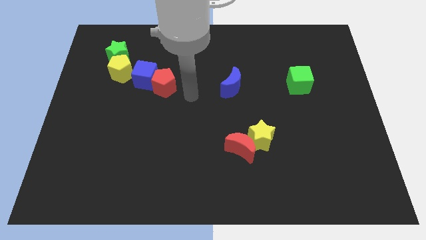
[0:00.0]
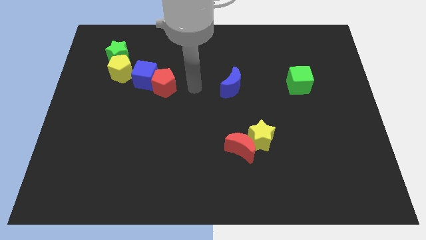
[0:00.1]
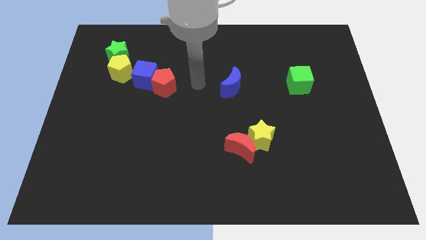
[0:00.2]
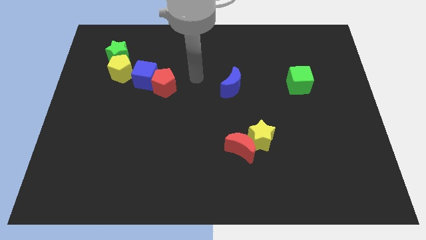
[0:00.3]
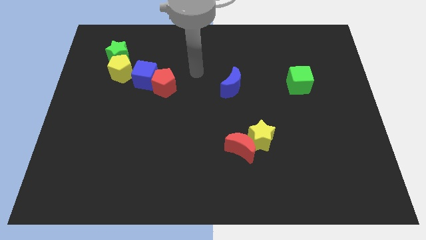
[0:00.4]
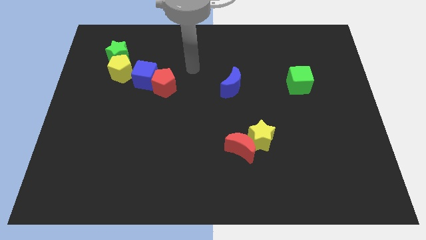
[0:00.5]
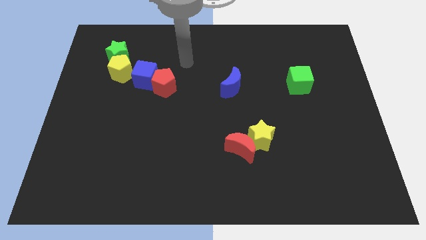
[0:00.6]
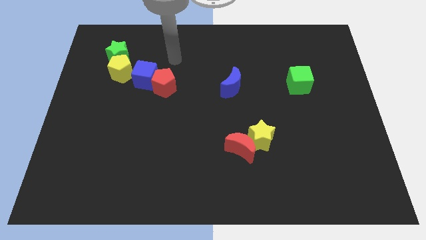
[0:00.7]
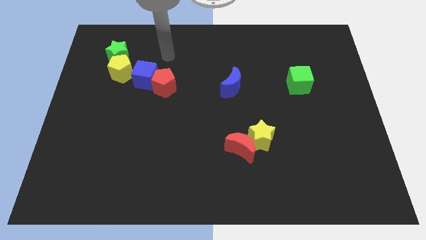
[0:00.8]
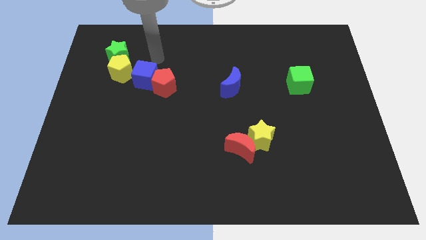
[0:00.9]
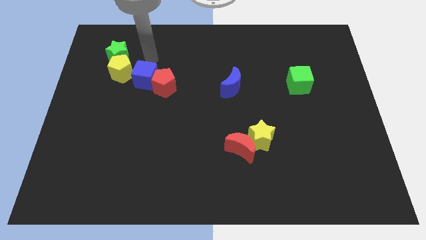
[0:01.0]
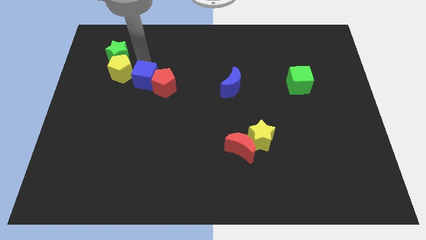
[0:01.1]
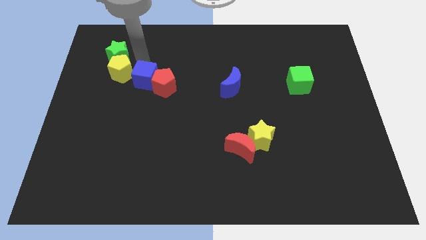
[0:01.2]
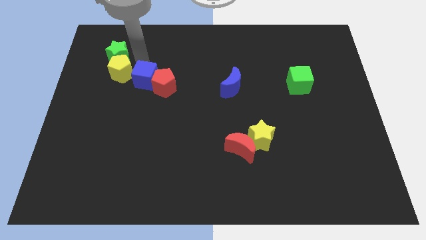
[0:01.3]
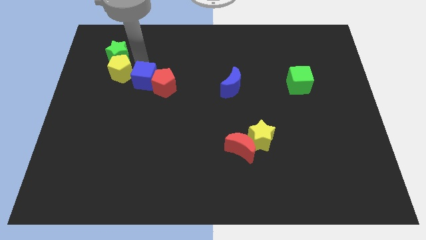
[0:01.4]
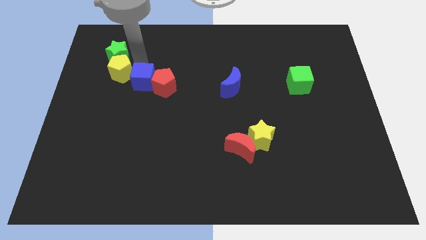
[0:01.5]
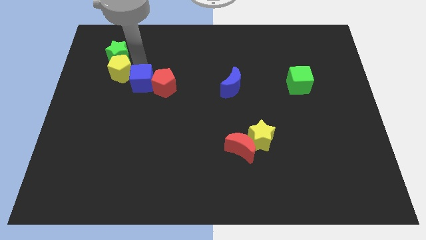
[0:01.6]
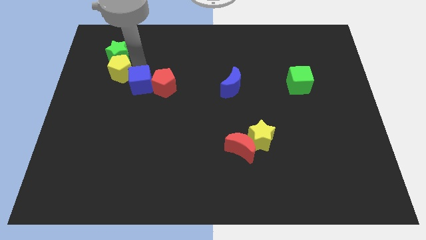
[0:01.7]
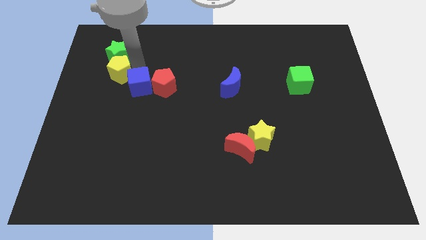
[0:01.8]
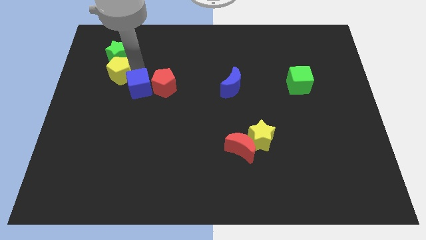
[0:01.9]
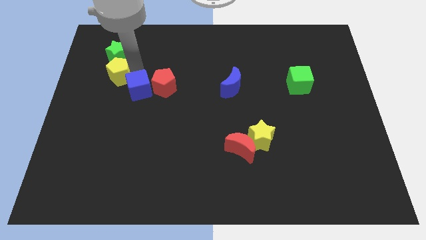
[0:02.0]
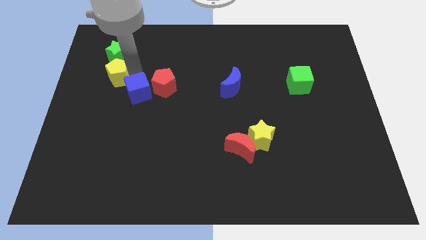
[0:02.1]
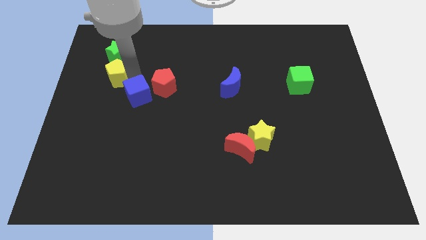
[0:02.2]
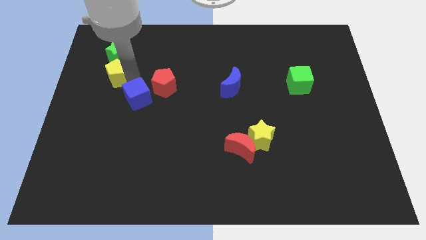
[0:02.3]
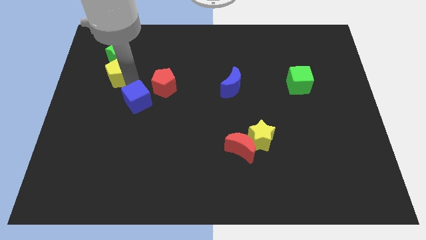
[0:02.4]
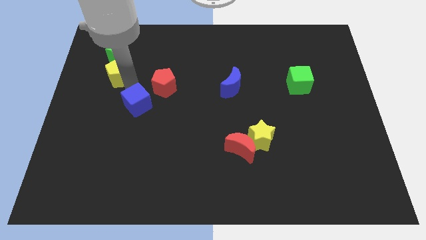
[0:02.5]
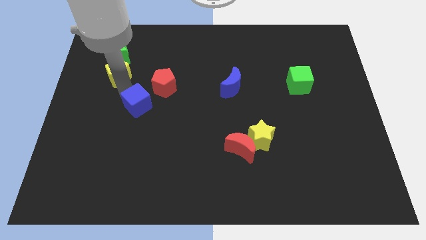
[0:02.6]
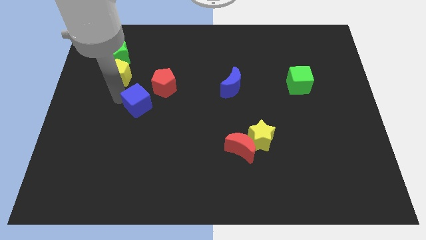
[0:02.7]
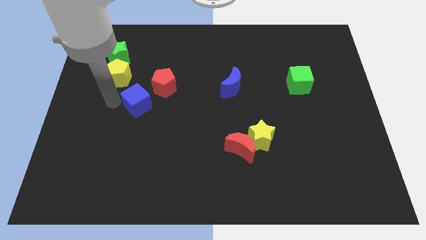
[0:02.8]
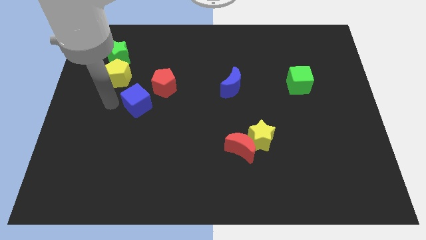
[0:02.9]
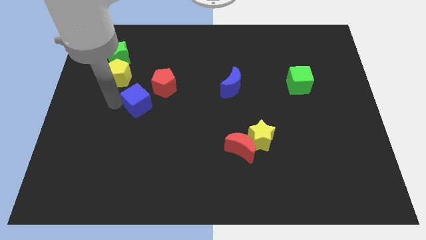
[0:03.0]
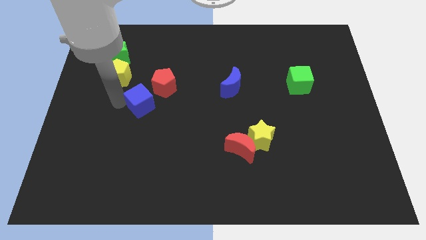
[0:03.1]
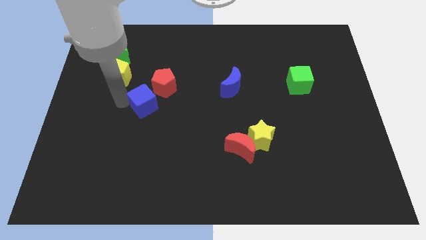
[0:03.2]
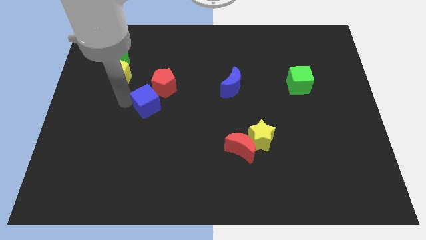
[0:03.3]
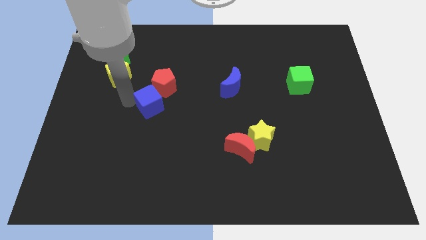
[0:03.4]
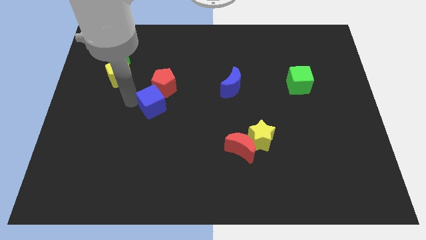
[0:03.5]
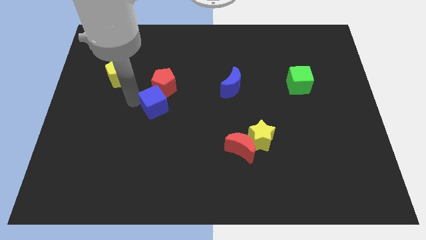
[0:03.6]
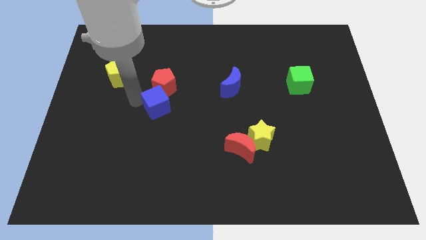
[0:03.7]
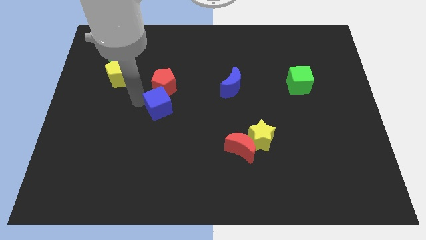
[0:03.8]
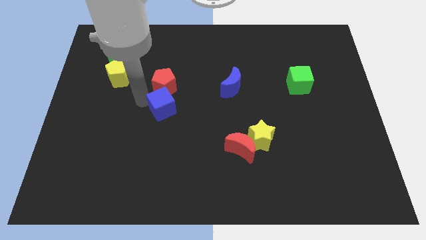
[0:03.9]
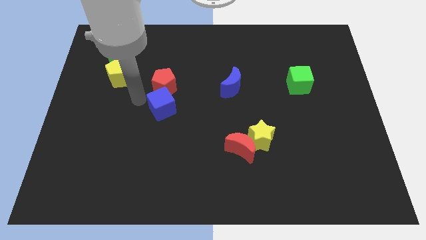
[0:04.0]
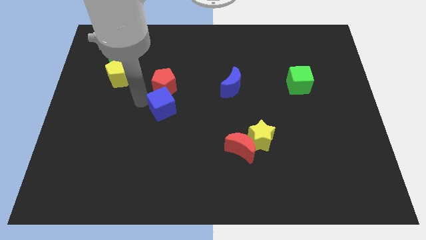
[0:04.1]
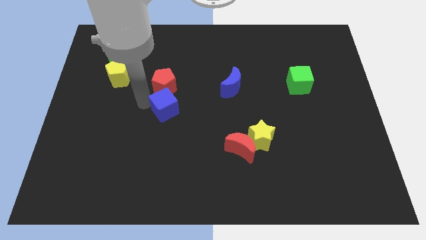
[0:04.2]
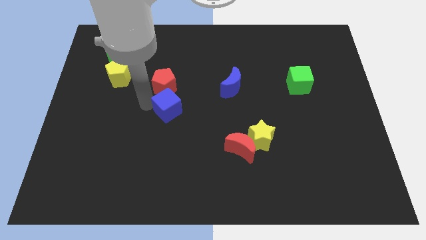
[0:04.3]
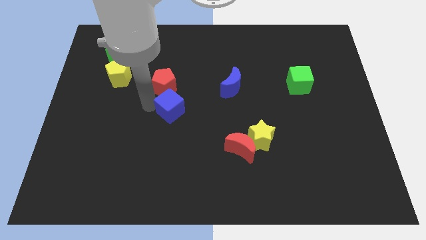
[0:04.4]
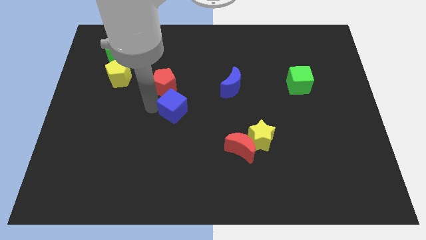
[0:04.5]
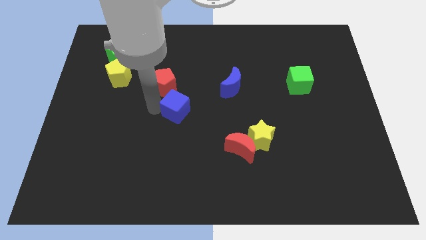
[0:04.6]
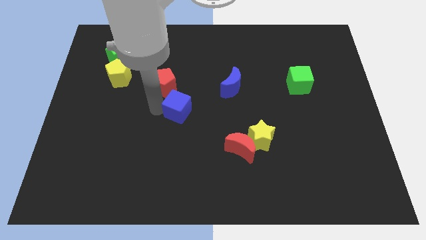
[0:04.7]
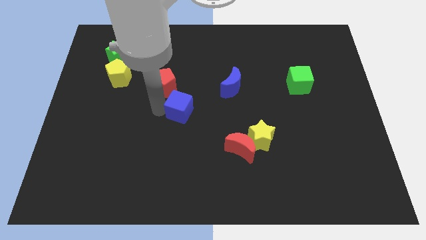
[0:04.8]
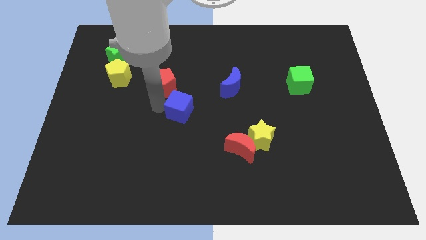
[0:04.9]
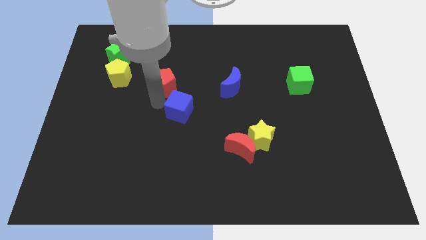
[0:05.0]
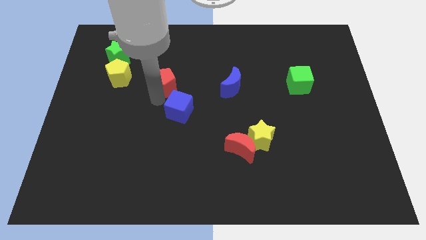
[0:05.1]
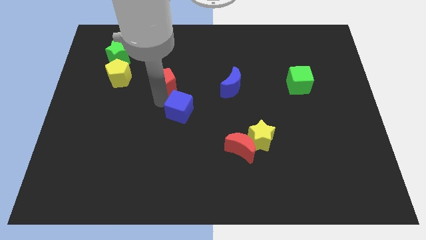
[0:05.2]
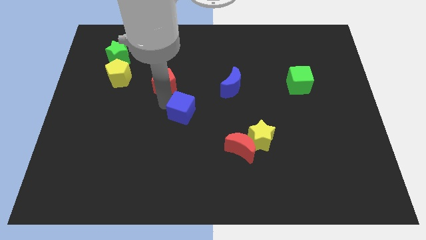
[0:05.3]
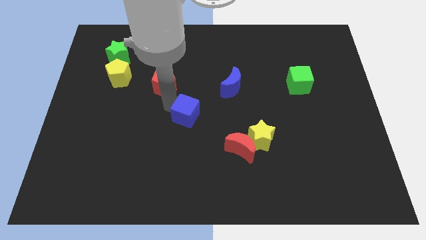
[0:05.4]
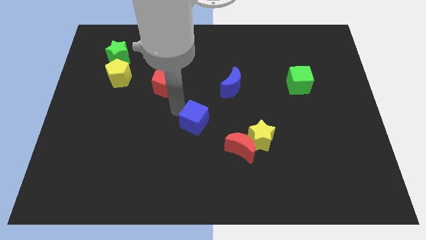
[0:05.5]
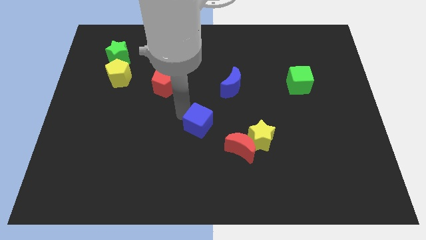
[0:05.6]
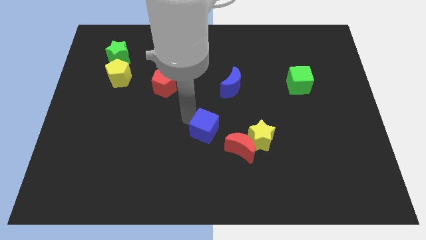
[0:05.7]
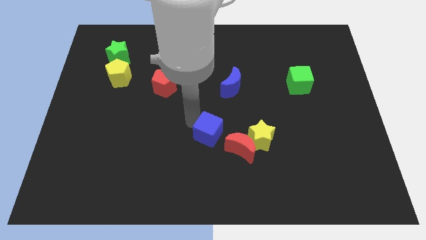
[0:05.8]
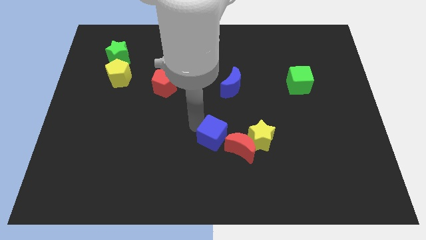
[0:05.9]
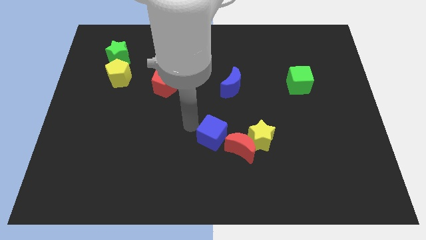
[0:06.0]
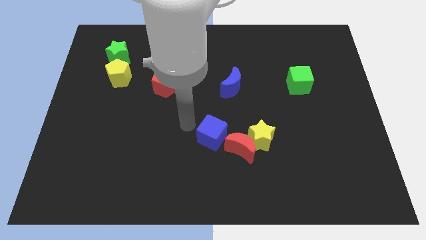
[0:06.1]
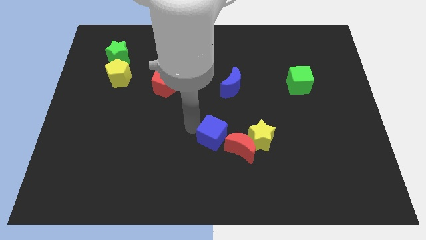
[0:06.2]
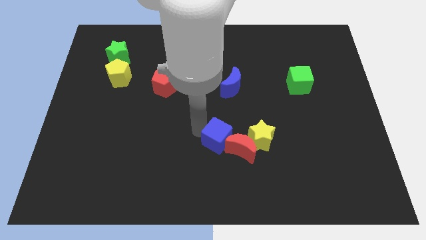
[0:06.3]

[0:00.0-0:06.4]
put the blue cube towards the red moon

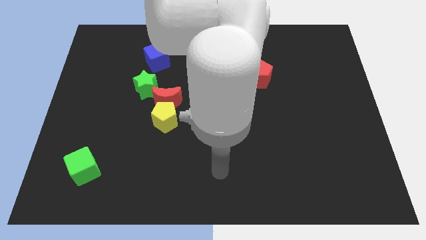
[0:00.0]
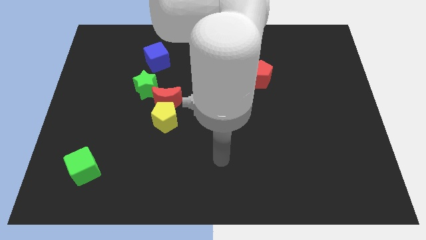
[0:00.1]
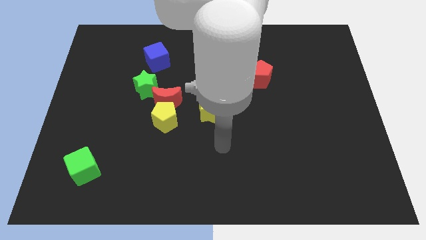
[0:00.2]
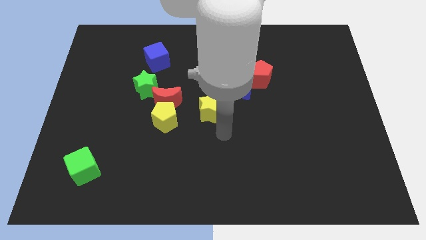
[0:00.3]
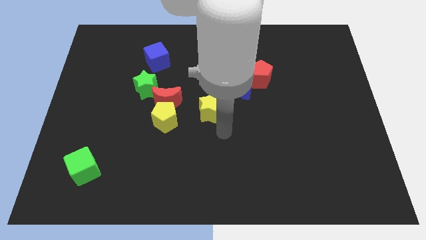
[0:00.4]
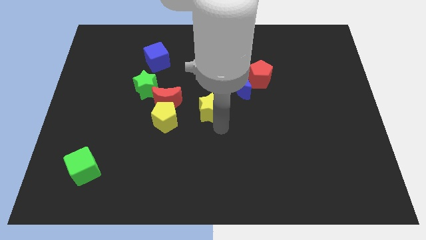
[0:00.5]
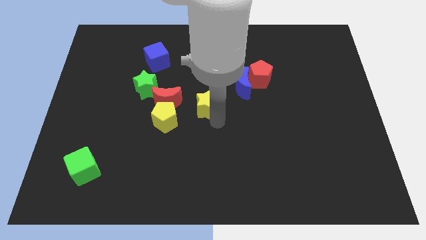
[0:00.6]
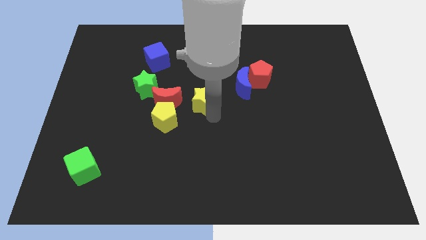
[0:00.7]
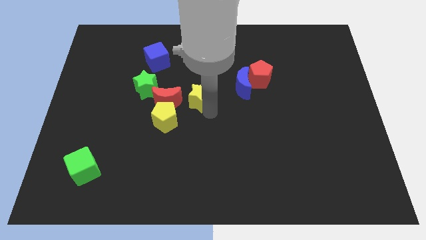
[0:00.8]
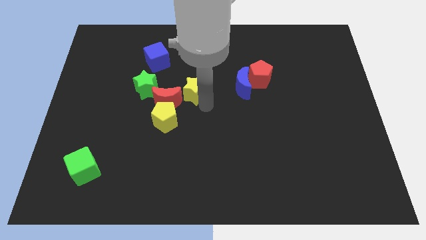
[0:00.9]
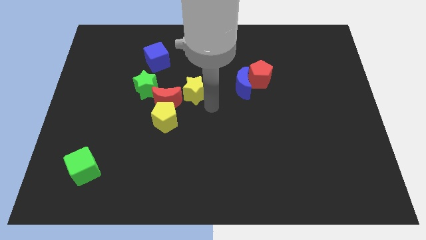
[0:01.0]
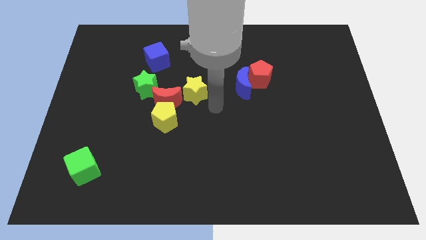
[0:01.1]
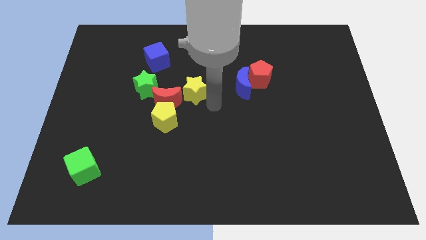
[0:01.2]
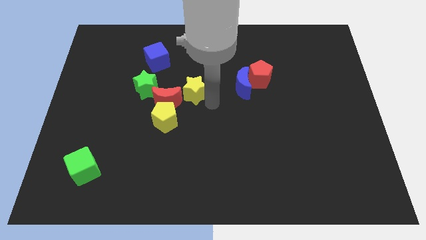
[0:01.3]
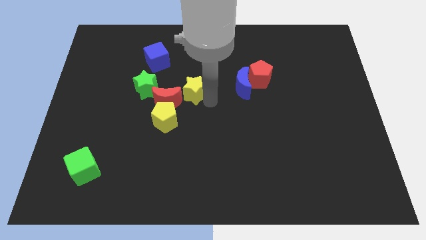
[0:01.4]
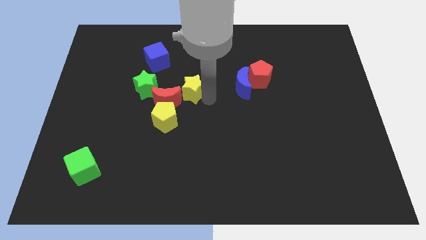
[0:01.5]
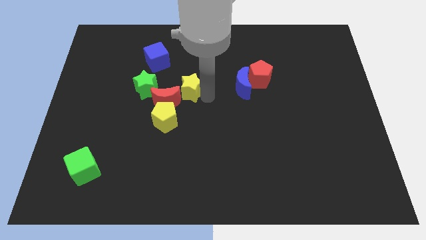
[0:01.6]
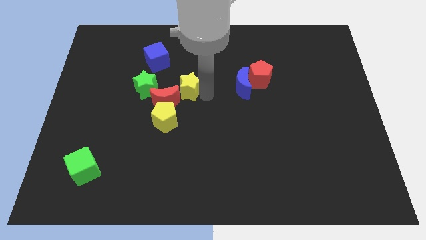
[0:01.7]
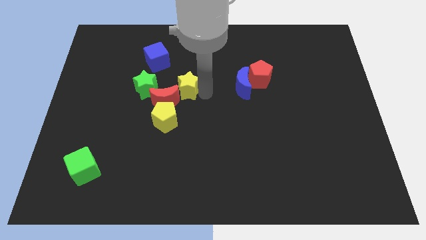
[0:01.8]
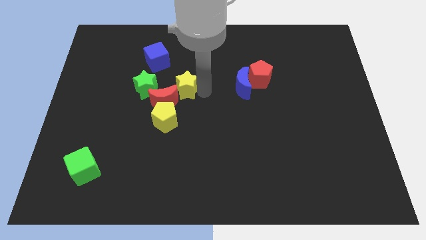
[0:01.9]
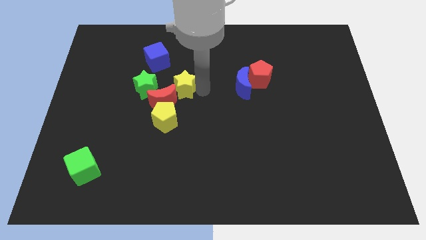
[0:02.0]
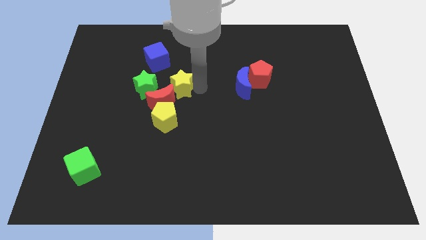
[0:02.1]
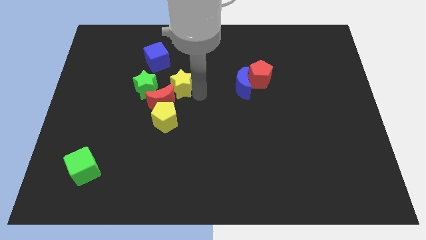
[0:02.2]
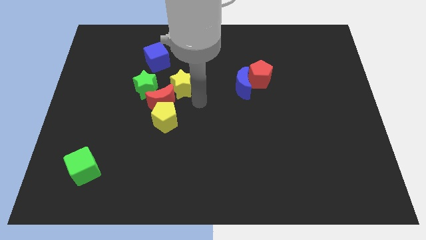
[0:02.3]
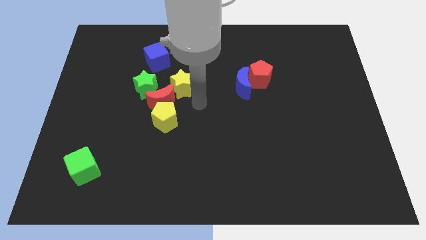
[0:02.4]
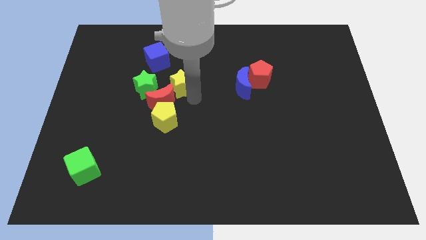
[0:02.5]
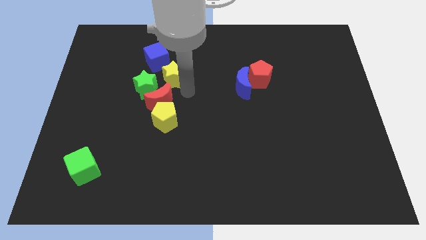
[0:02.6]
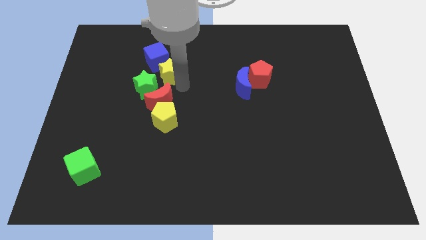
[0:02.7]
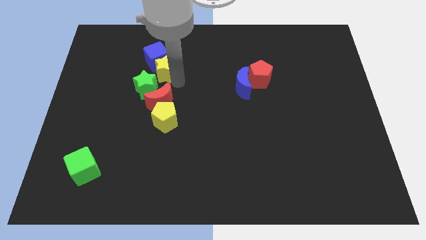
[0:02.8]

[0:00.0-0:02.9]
push the yellow star towards the blue cube
